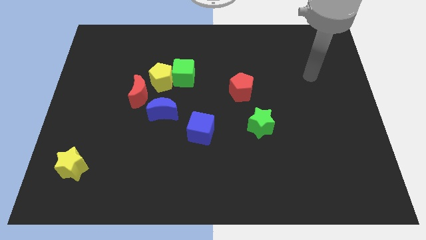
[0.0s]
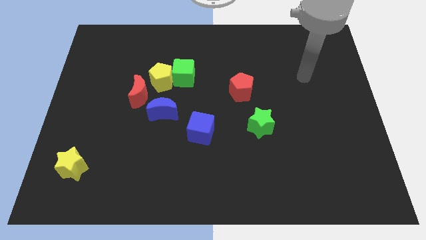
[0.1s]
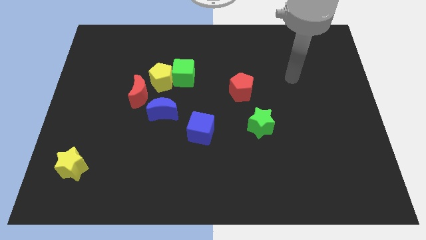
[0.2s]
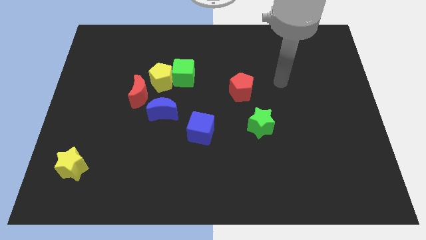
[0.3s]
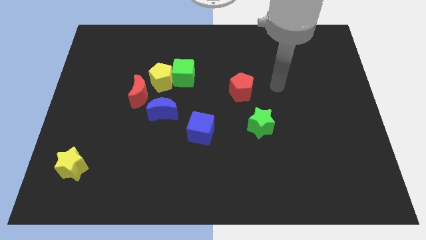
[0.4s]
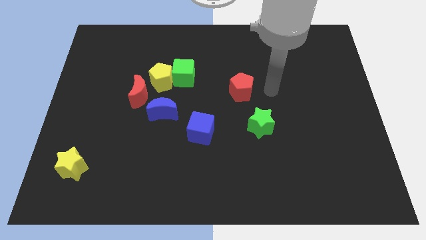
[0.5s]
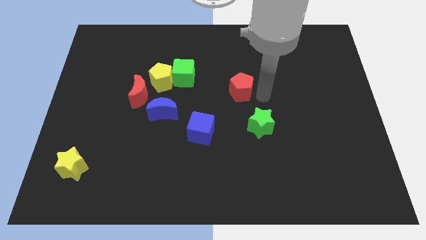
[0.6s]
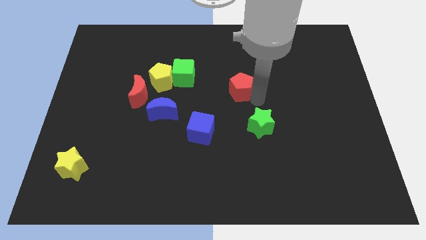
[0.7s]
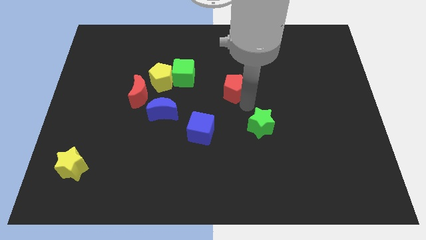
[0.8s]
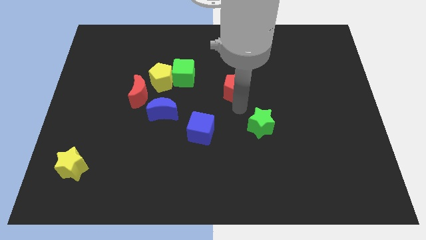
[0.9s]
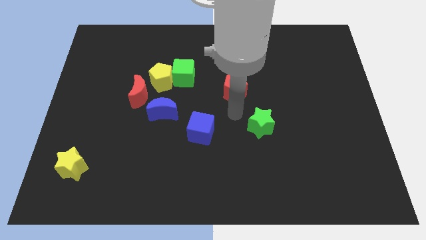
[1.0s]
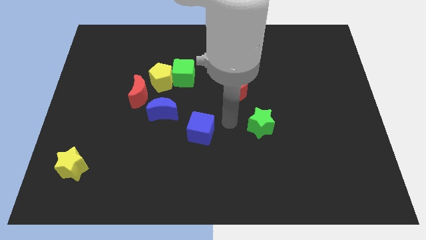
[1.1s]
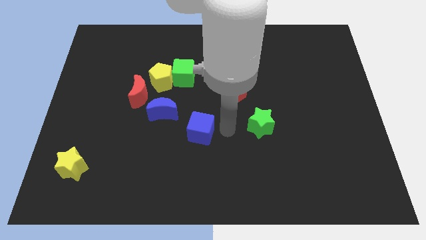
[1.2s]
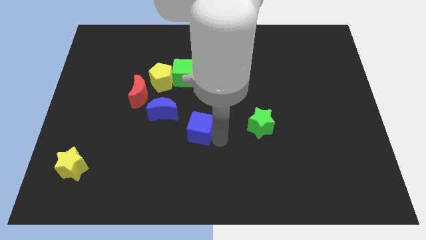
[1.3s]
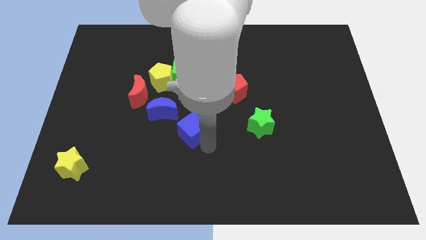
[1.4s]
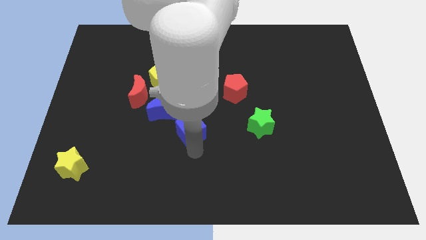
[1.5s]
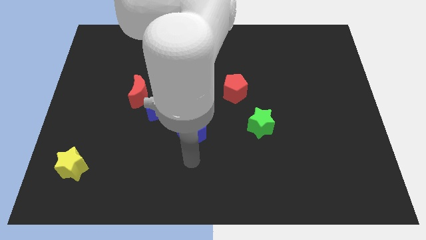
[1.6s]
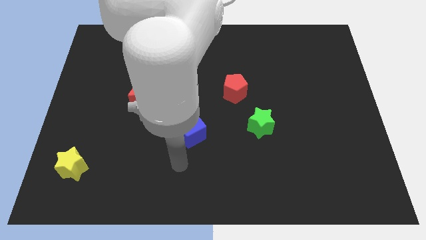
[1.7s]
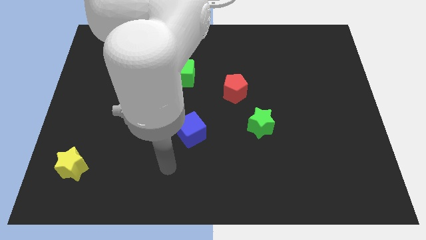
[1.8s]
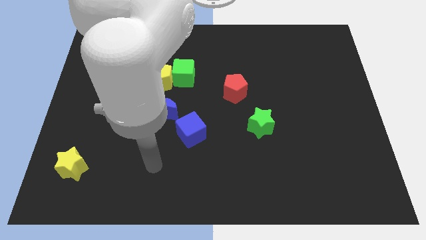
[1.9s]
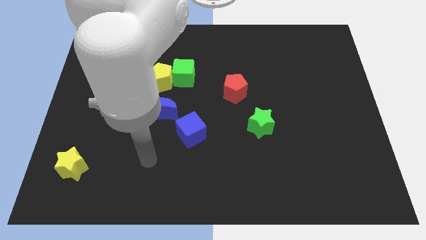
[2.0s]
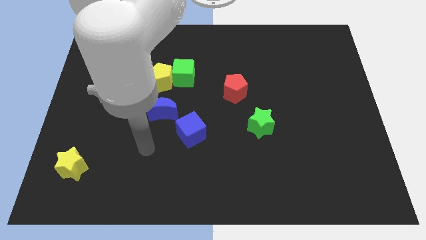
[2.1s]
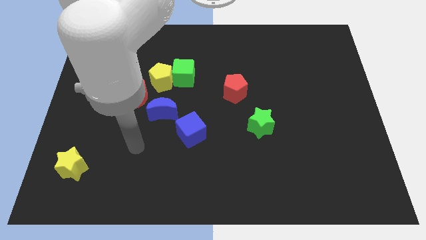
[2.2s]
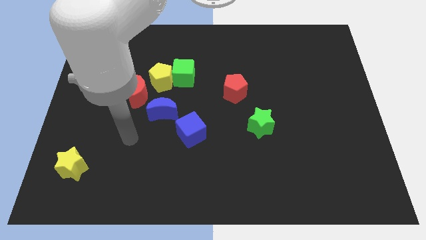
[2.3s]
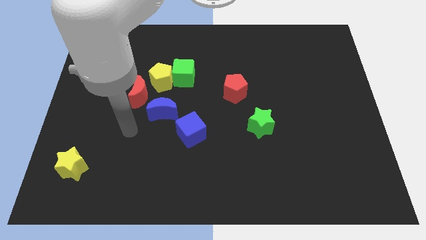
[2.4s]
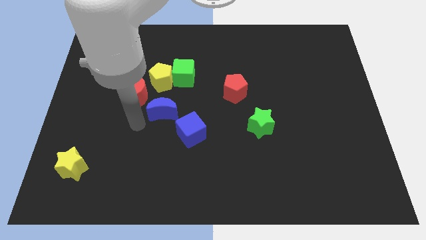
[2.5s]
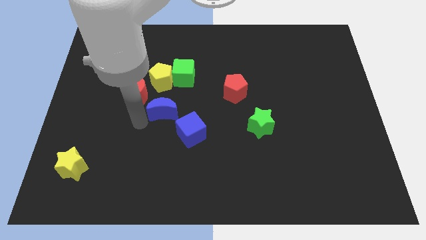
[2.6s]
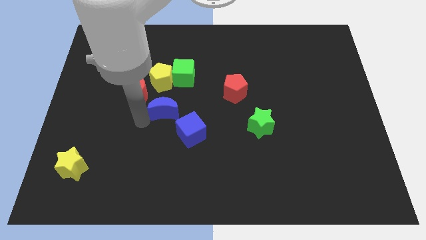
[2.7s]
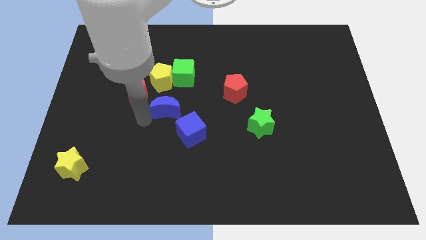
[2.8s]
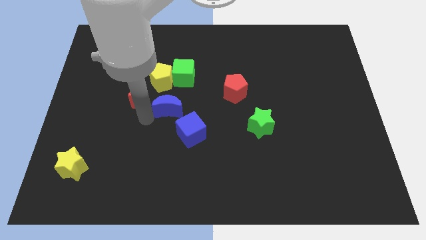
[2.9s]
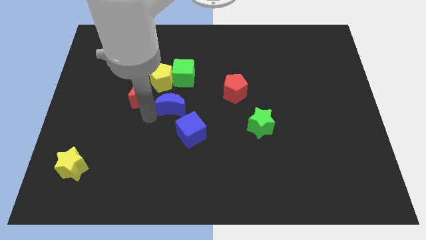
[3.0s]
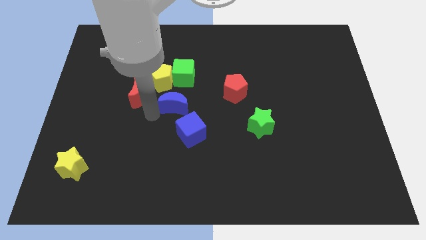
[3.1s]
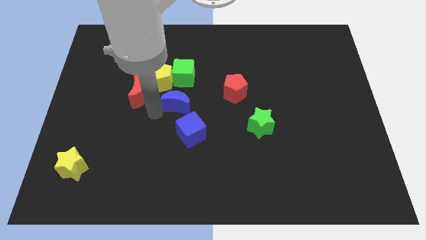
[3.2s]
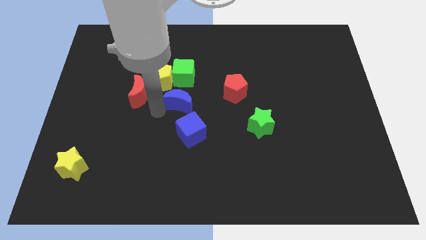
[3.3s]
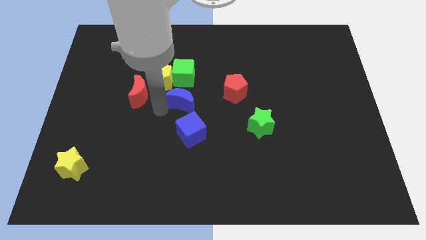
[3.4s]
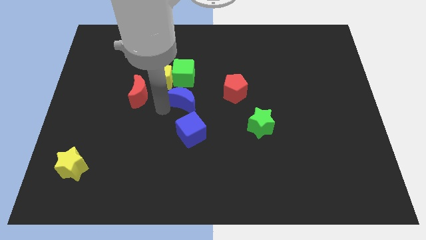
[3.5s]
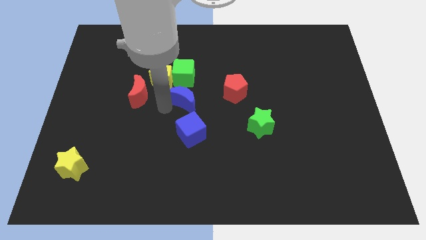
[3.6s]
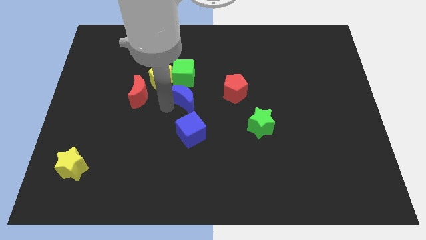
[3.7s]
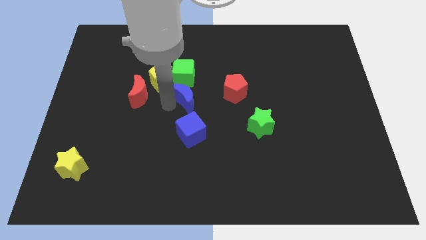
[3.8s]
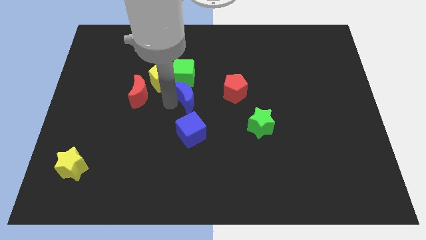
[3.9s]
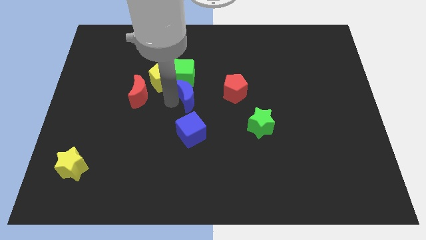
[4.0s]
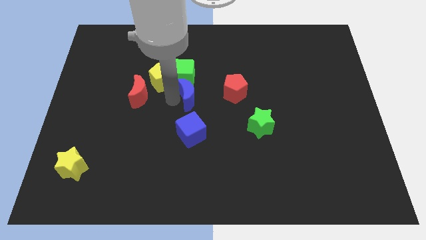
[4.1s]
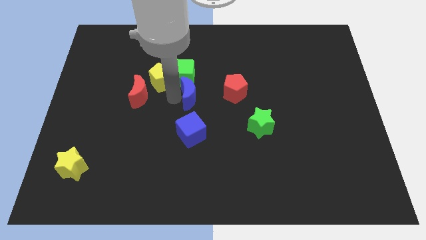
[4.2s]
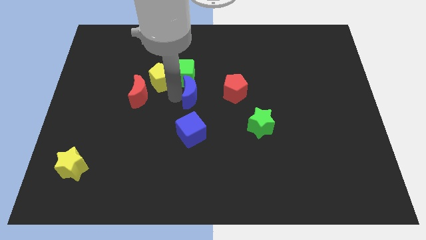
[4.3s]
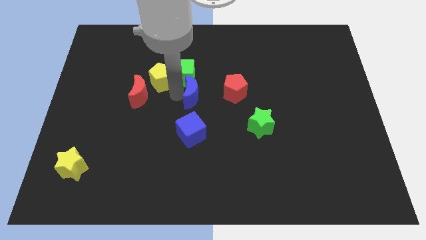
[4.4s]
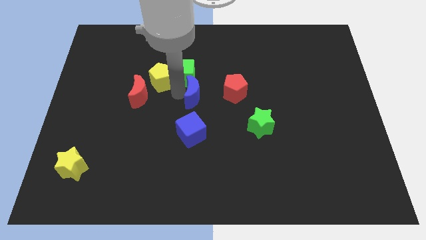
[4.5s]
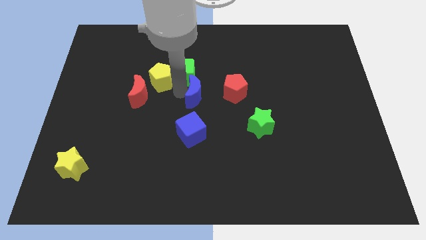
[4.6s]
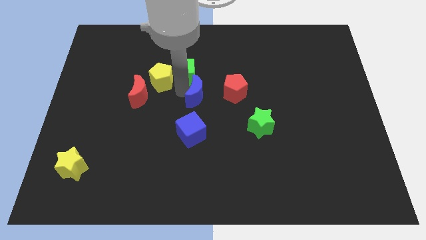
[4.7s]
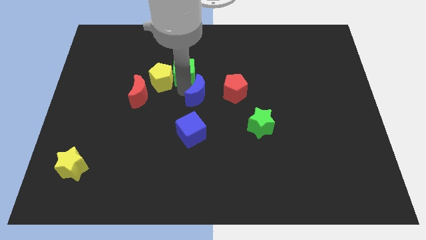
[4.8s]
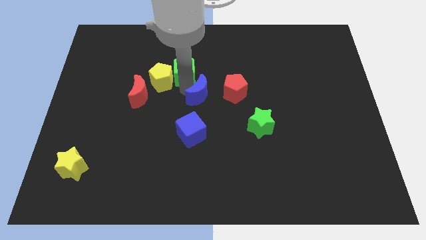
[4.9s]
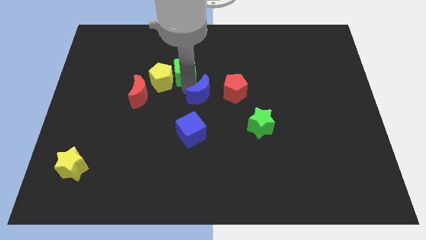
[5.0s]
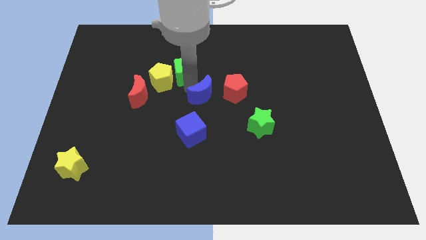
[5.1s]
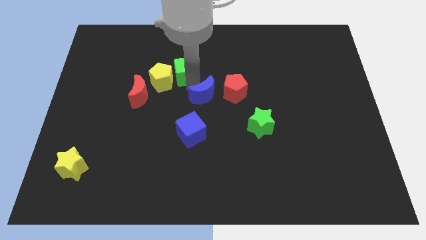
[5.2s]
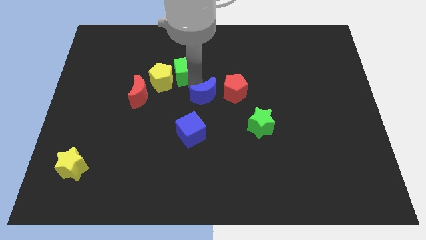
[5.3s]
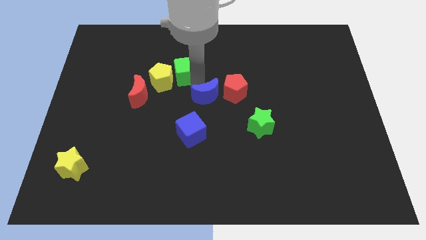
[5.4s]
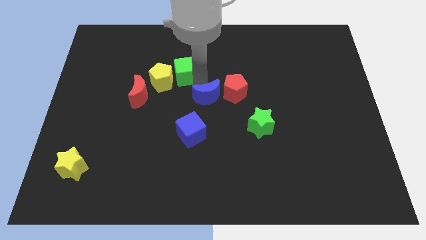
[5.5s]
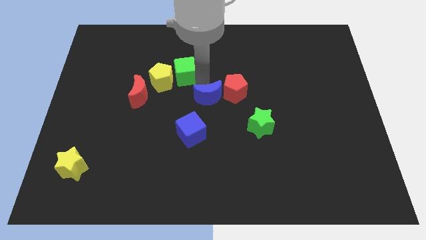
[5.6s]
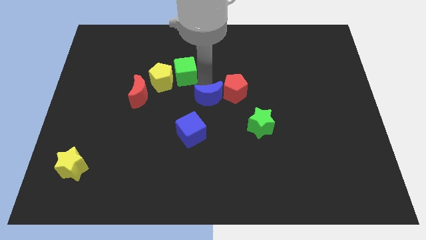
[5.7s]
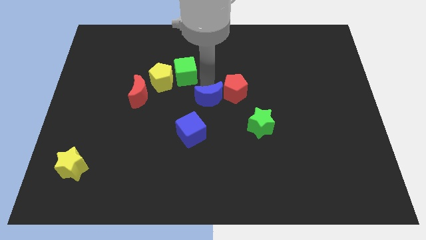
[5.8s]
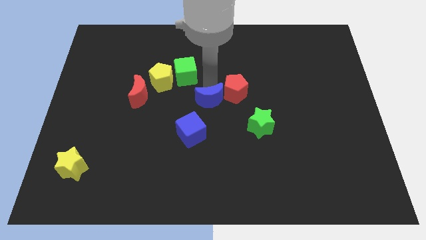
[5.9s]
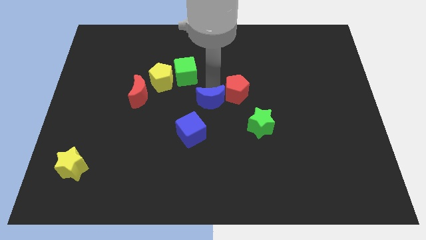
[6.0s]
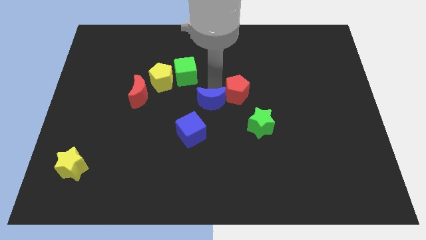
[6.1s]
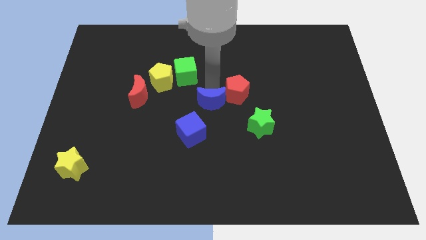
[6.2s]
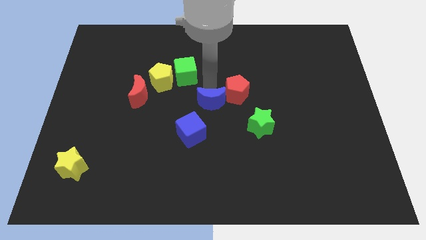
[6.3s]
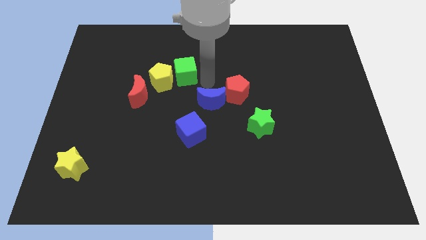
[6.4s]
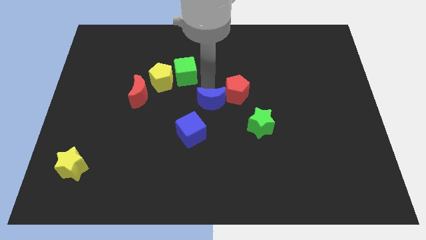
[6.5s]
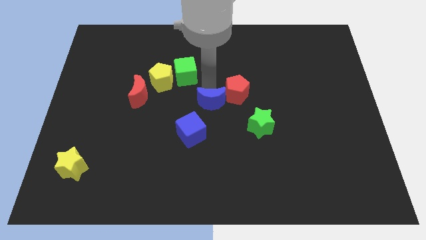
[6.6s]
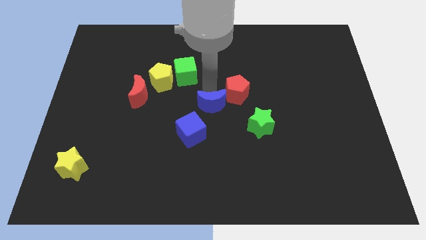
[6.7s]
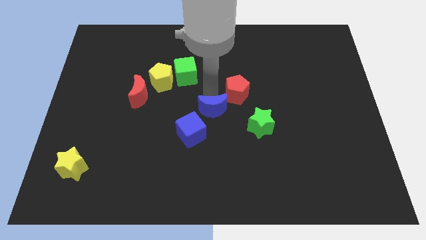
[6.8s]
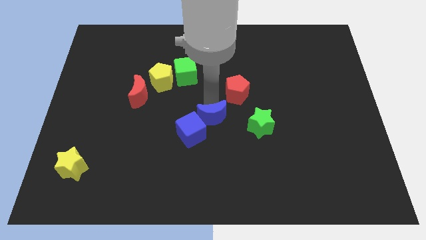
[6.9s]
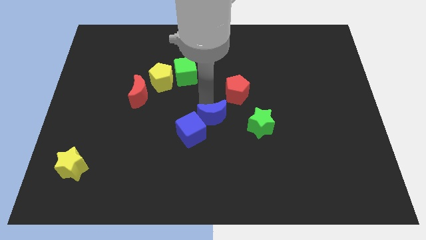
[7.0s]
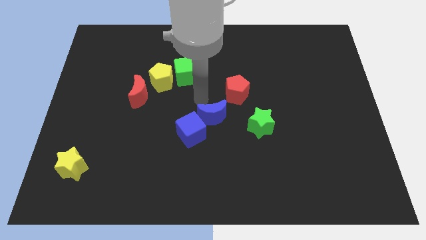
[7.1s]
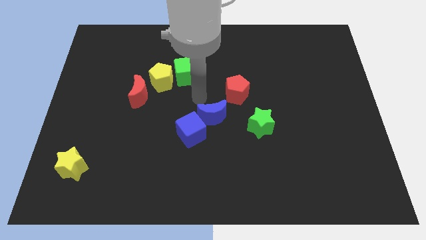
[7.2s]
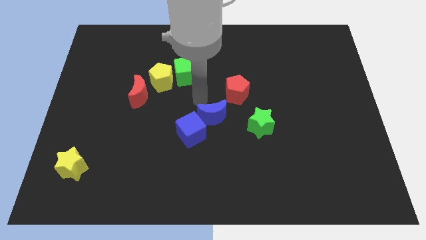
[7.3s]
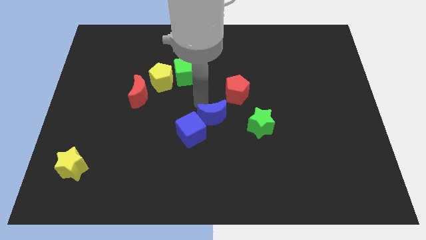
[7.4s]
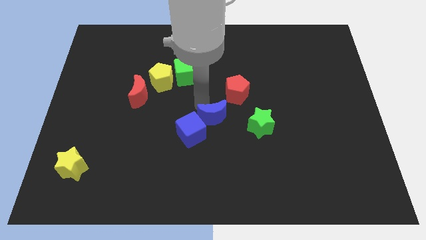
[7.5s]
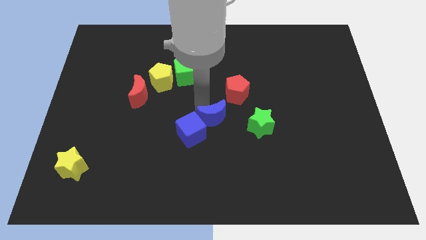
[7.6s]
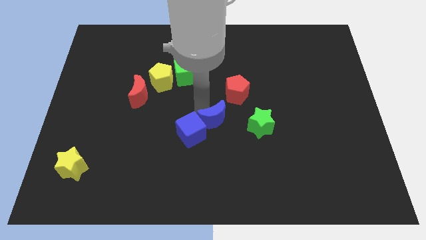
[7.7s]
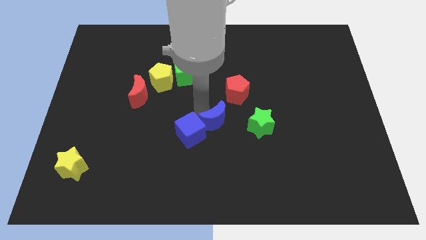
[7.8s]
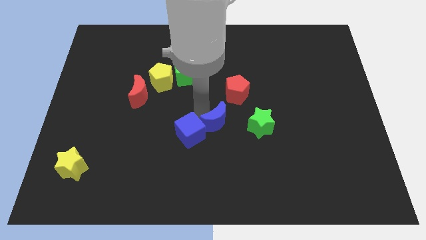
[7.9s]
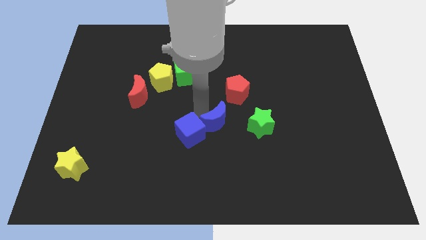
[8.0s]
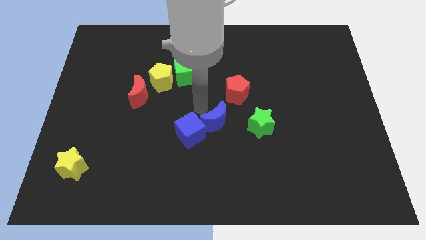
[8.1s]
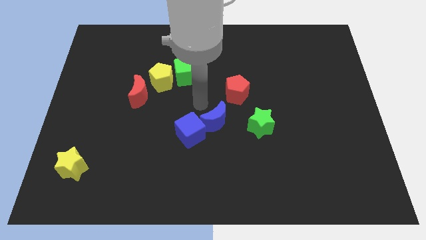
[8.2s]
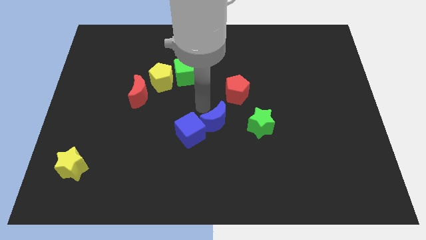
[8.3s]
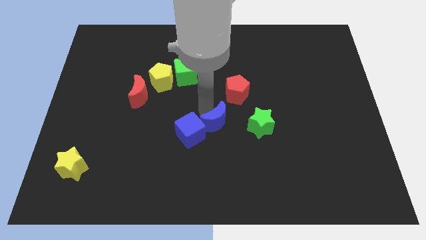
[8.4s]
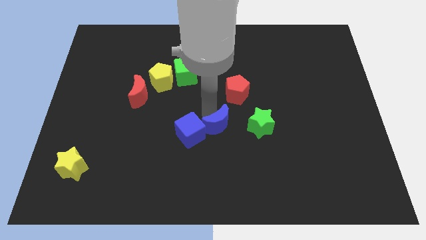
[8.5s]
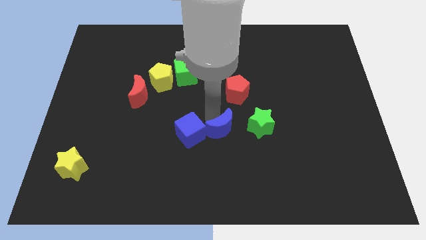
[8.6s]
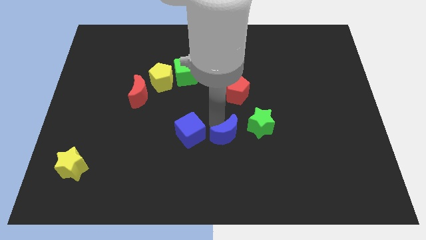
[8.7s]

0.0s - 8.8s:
push the blue moon to the bottom left side of the green star
